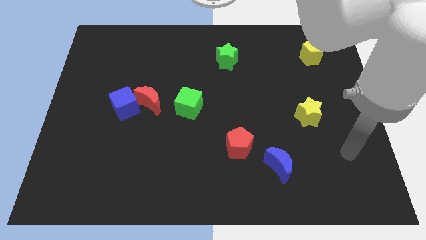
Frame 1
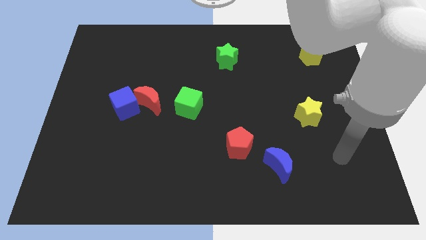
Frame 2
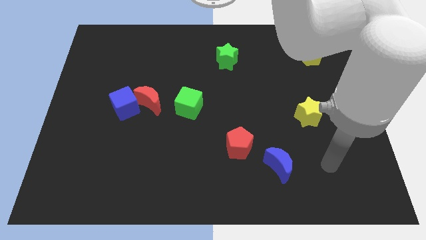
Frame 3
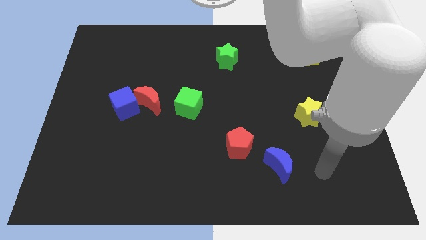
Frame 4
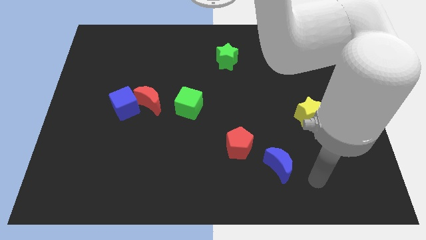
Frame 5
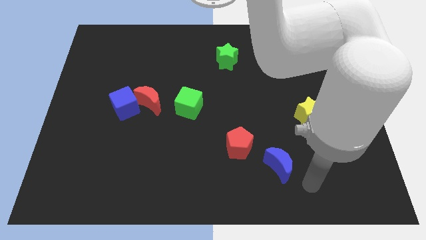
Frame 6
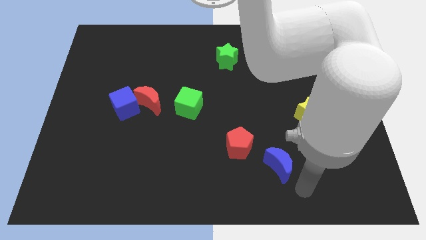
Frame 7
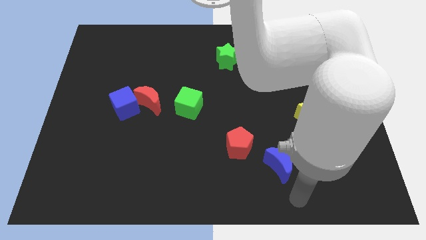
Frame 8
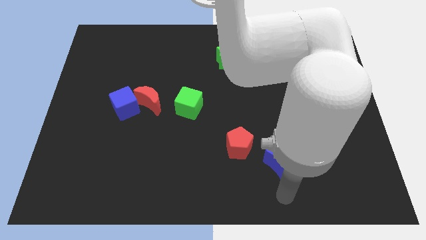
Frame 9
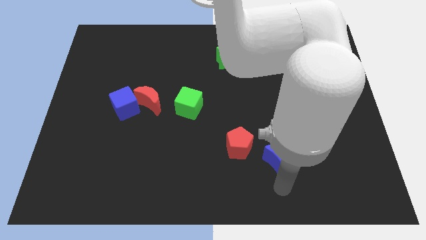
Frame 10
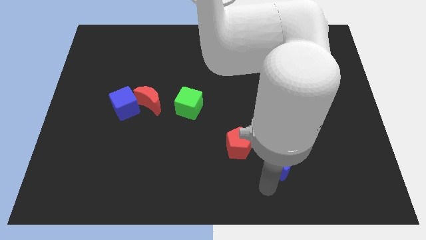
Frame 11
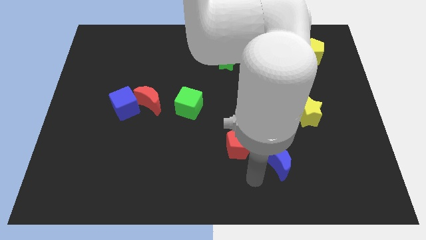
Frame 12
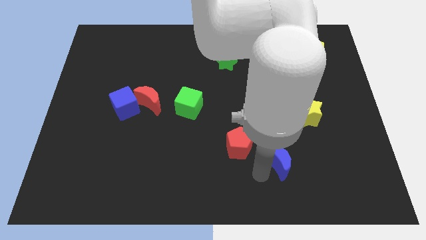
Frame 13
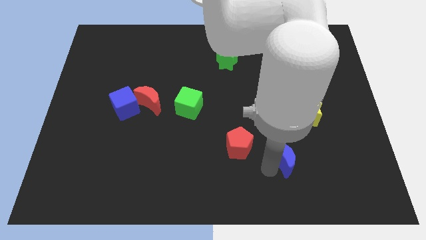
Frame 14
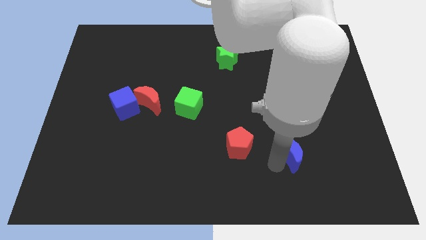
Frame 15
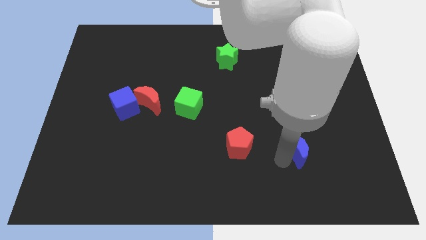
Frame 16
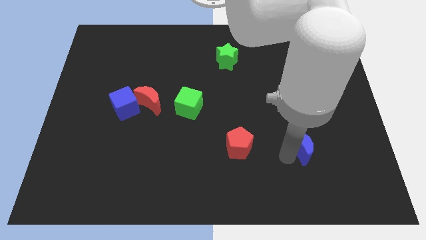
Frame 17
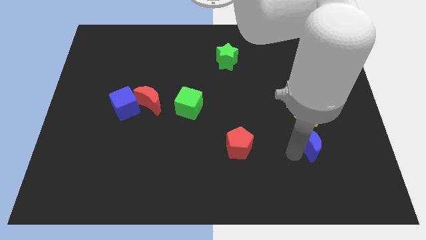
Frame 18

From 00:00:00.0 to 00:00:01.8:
slide the blue moon up and then right a little bit

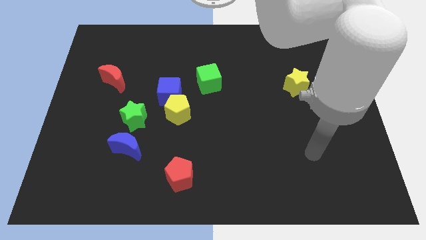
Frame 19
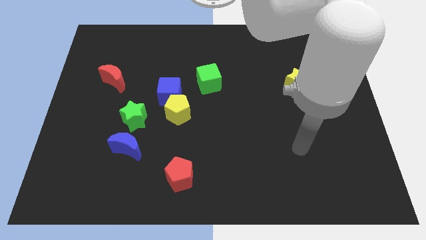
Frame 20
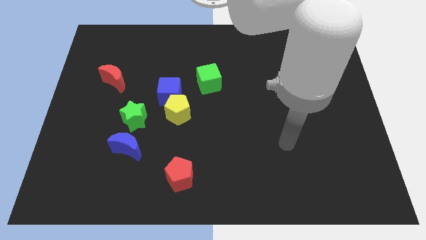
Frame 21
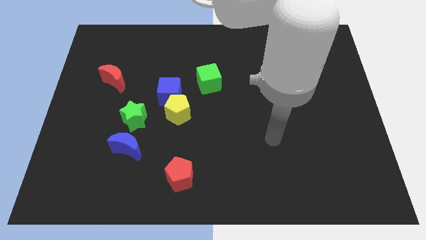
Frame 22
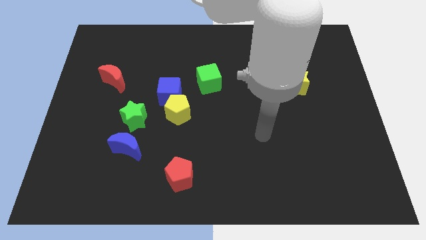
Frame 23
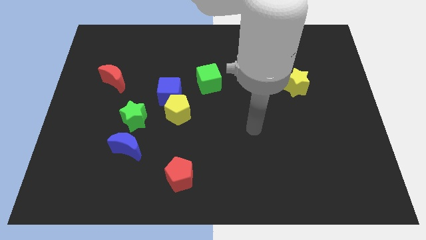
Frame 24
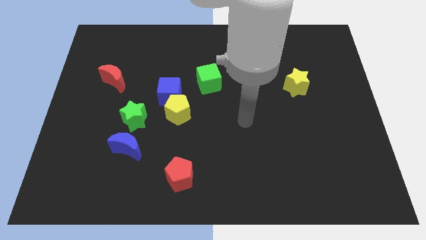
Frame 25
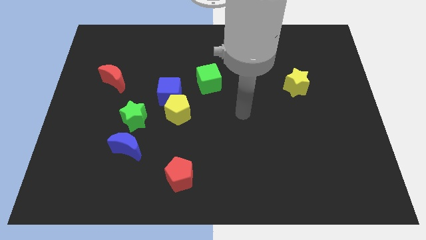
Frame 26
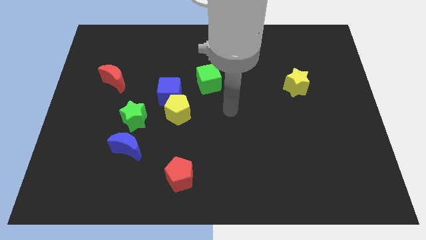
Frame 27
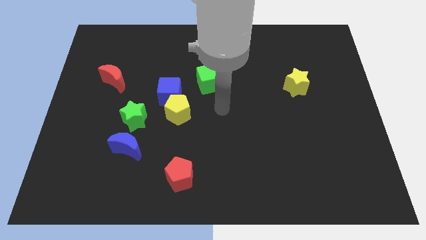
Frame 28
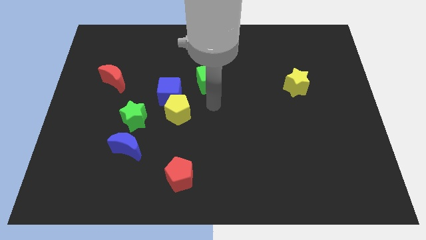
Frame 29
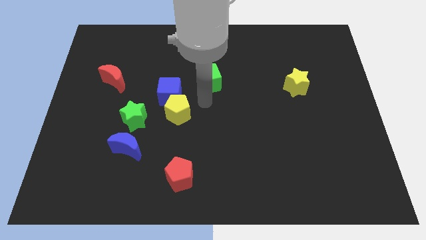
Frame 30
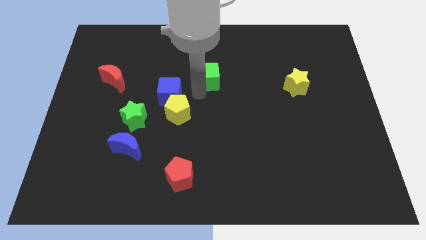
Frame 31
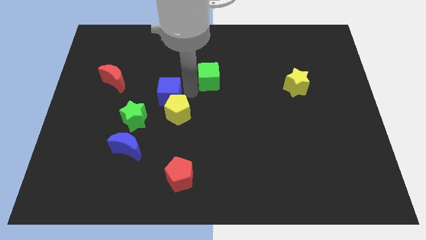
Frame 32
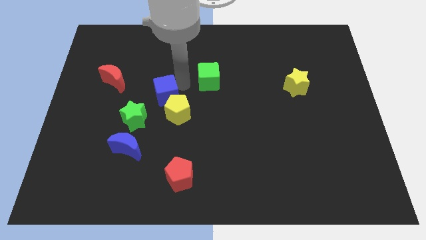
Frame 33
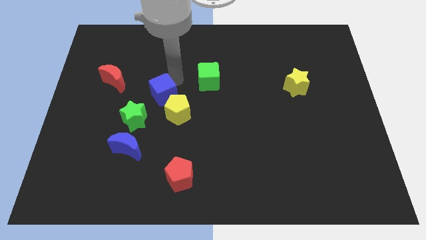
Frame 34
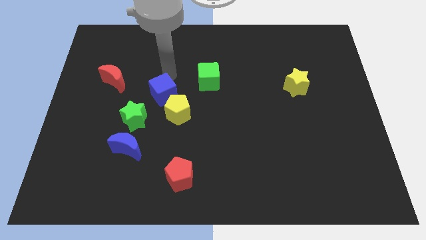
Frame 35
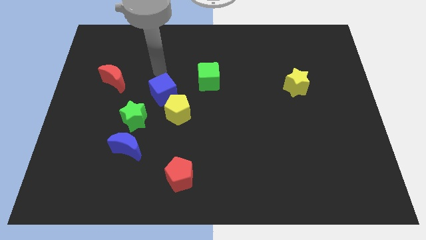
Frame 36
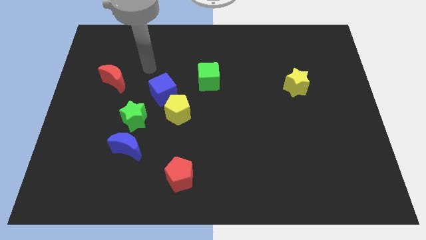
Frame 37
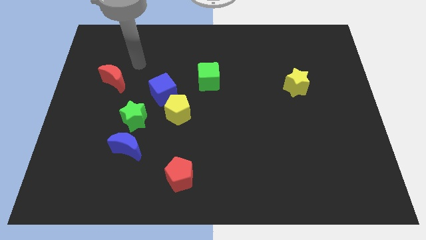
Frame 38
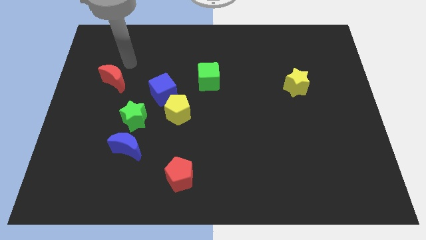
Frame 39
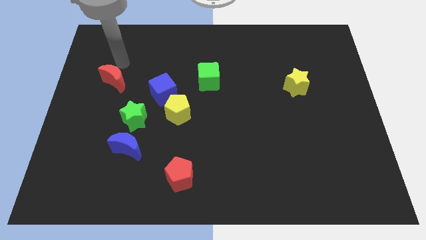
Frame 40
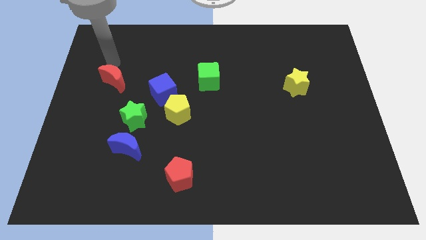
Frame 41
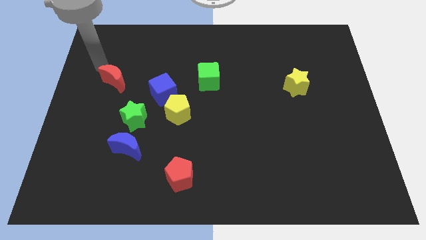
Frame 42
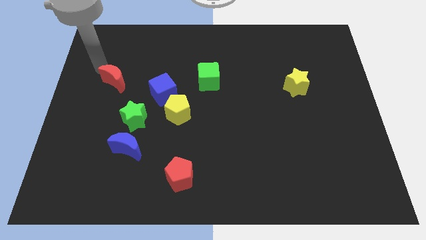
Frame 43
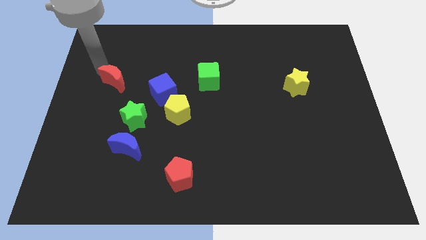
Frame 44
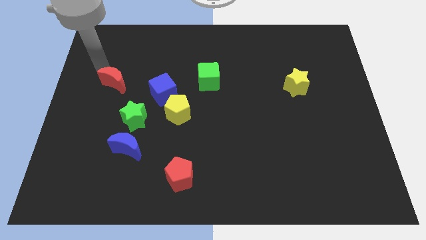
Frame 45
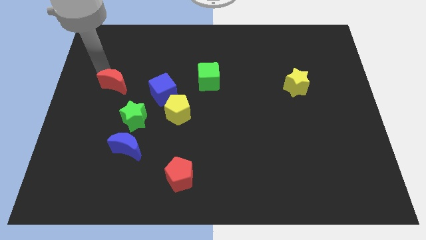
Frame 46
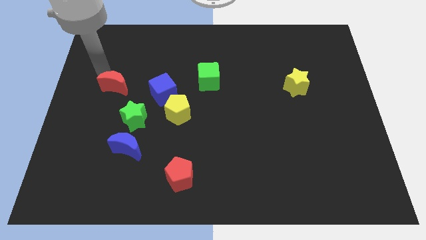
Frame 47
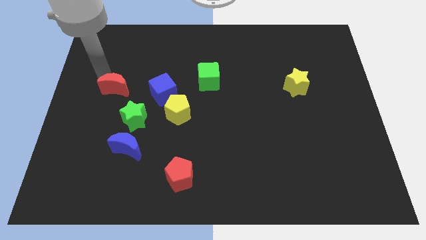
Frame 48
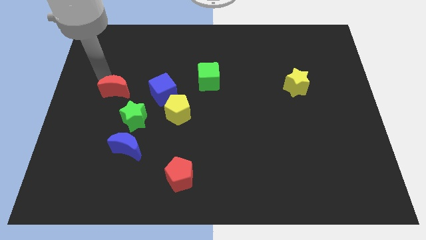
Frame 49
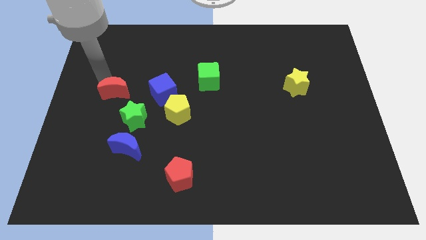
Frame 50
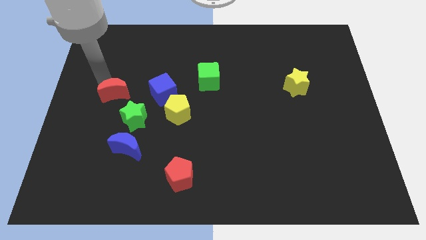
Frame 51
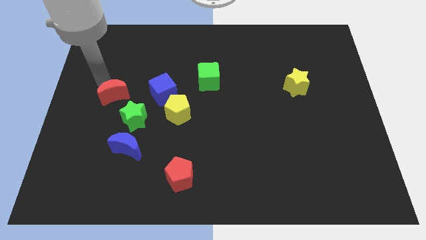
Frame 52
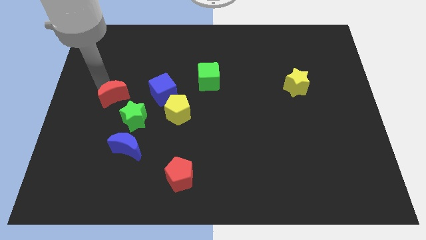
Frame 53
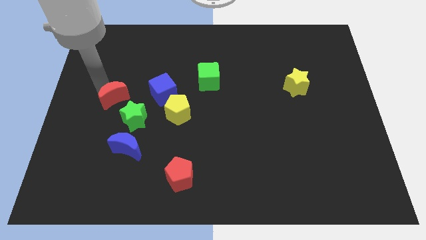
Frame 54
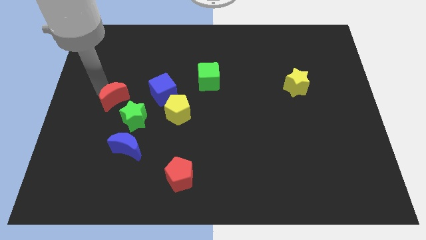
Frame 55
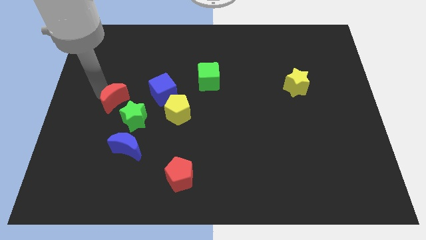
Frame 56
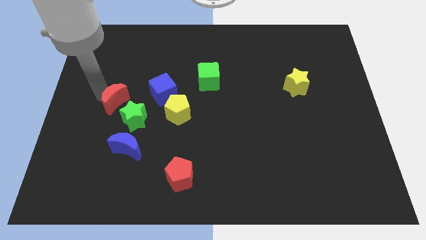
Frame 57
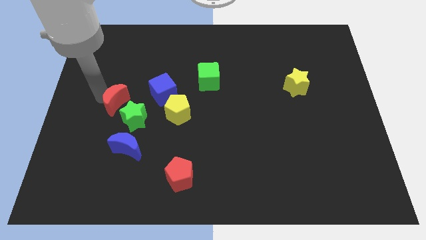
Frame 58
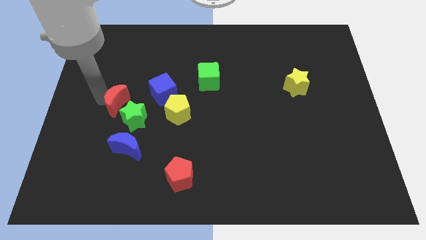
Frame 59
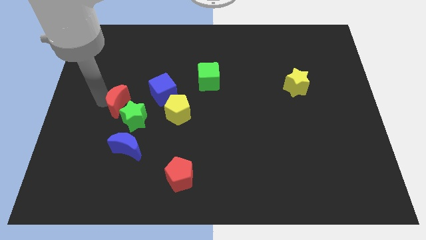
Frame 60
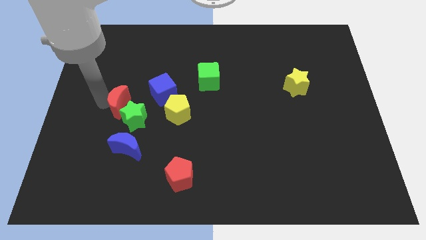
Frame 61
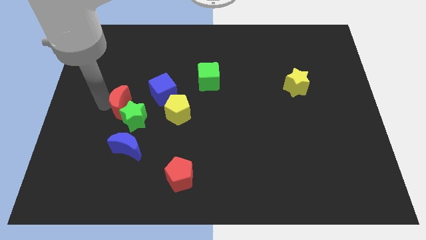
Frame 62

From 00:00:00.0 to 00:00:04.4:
slide the red moon downwards and then to the right slightly

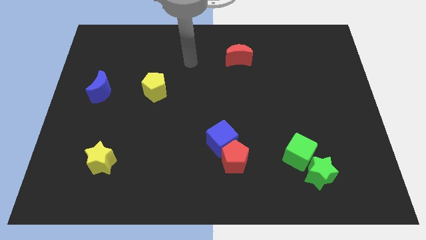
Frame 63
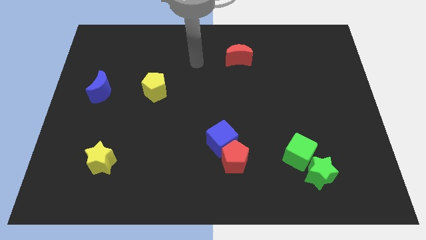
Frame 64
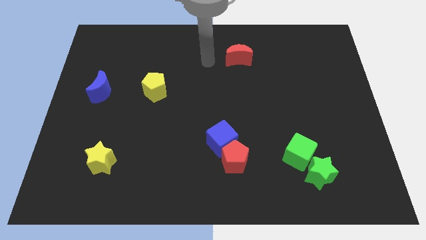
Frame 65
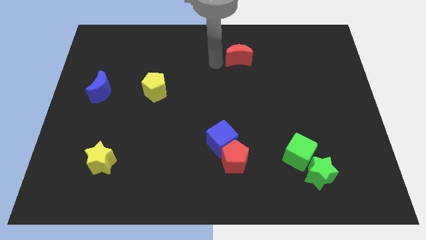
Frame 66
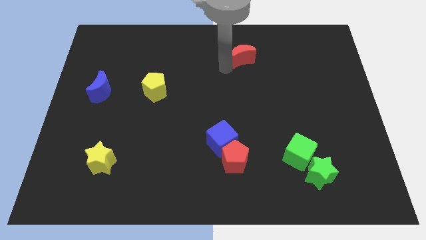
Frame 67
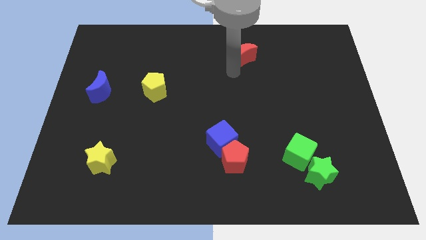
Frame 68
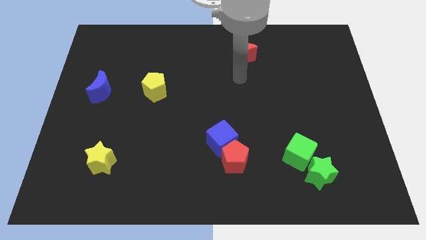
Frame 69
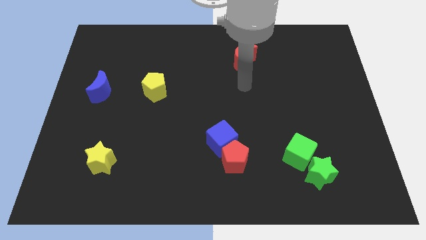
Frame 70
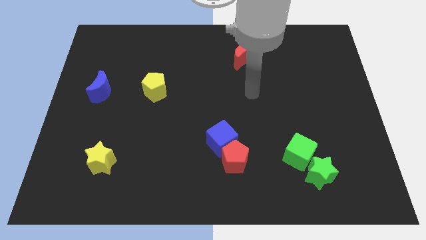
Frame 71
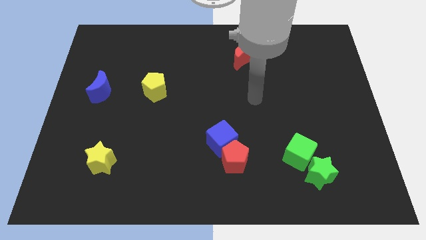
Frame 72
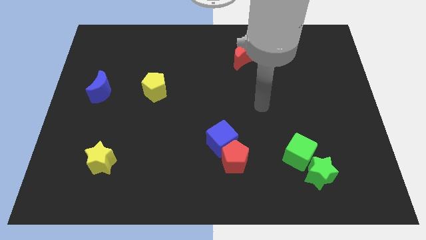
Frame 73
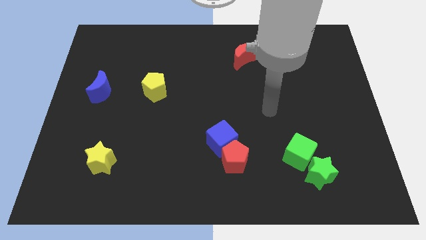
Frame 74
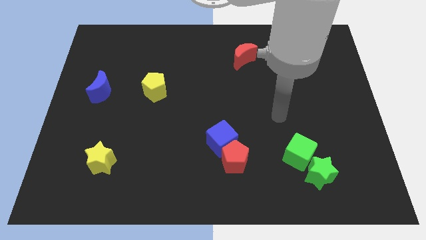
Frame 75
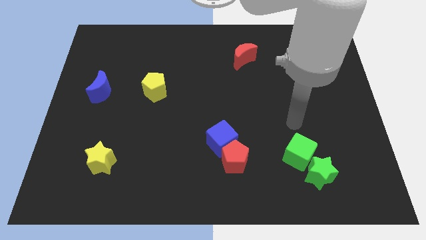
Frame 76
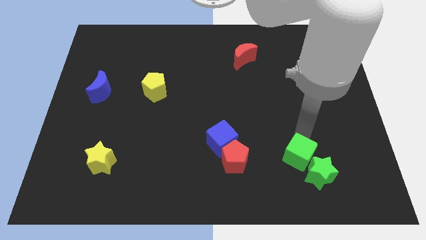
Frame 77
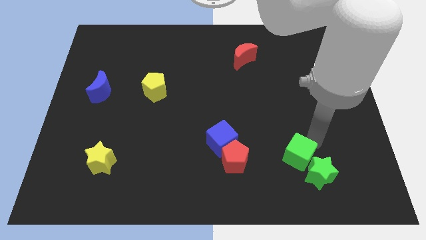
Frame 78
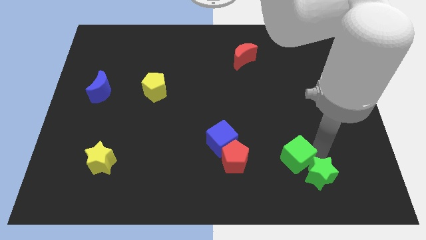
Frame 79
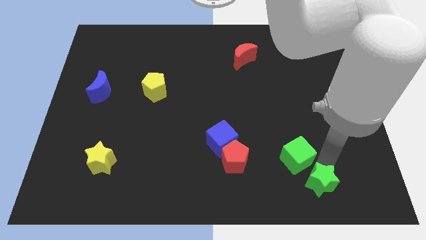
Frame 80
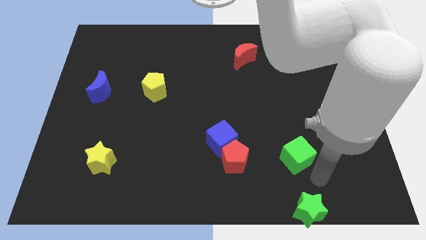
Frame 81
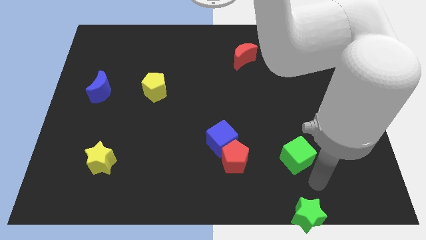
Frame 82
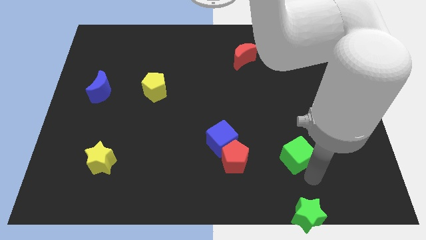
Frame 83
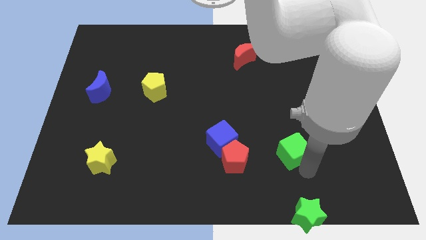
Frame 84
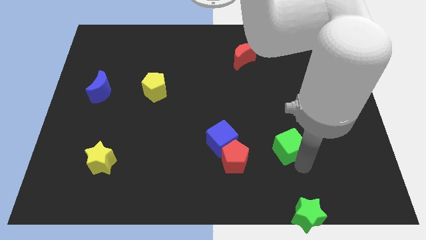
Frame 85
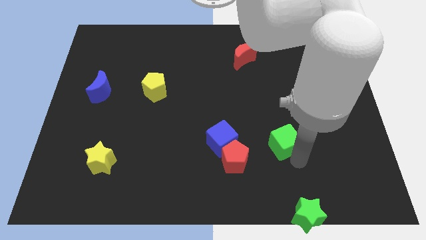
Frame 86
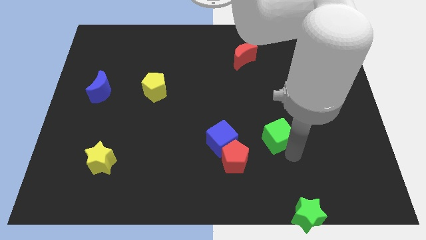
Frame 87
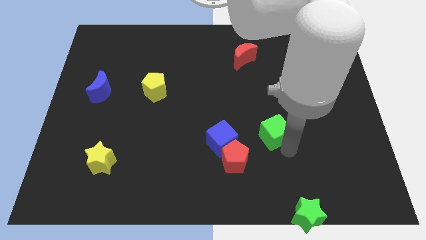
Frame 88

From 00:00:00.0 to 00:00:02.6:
slide the green cube slightly up and to the left diagonally
